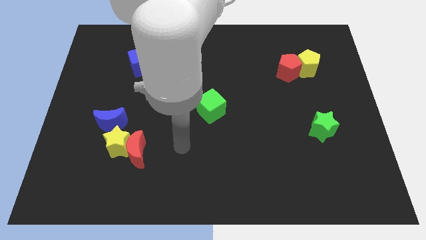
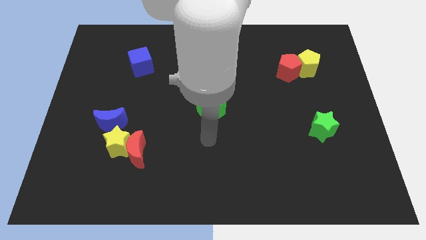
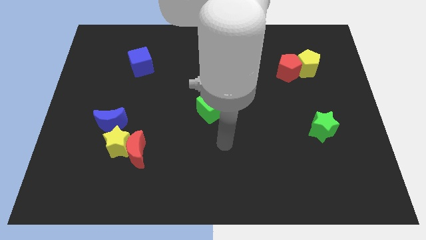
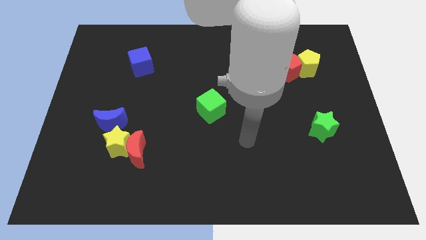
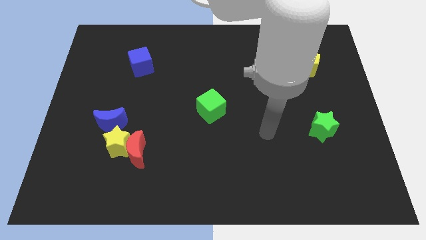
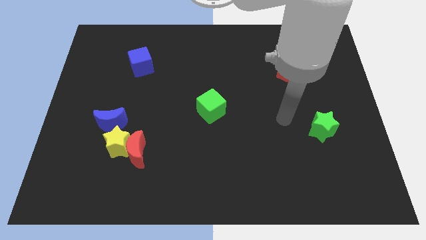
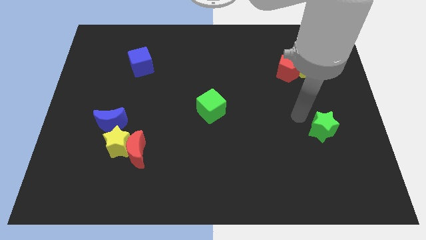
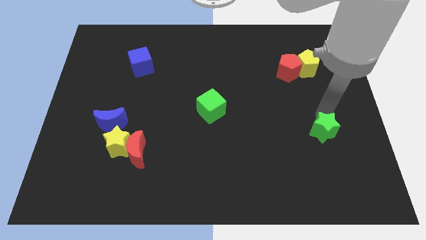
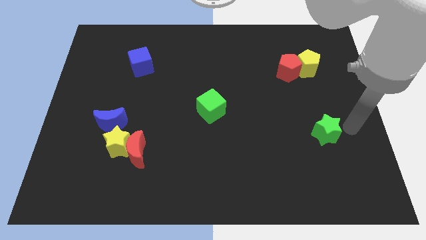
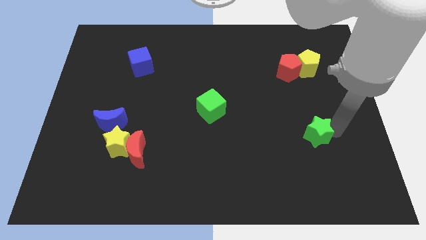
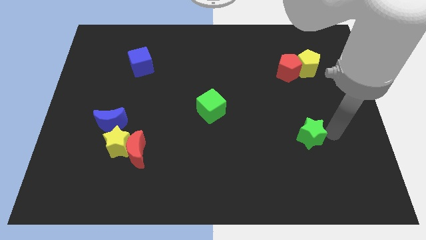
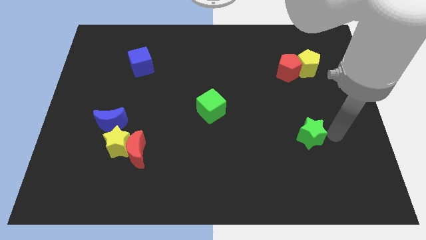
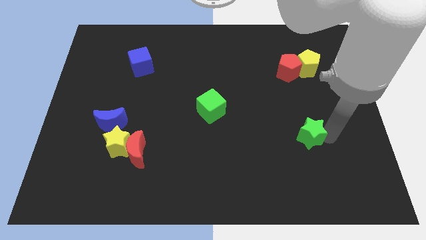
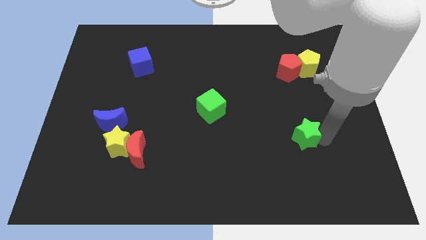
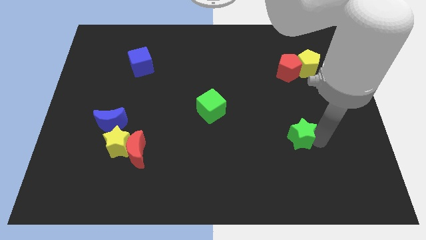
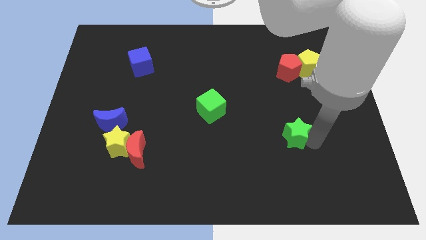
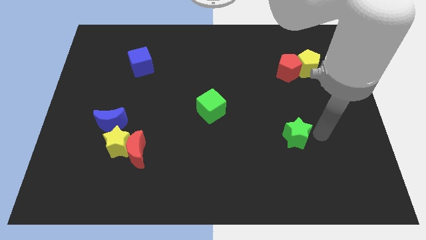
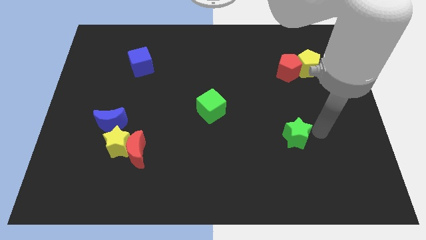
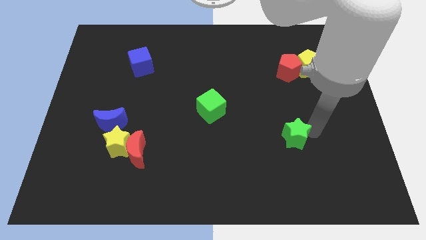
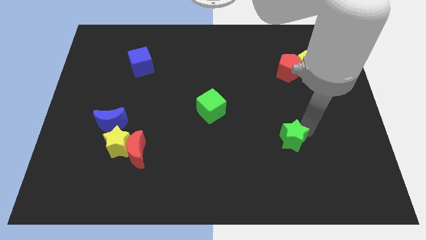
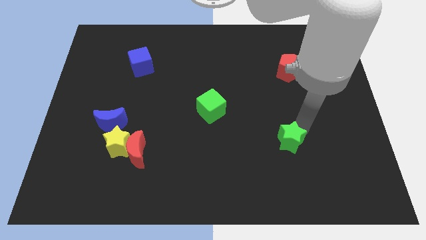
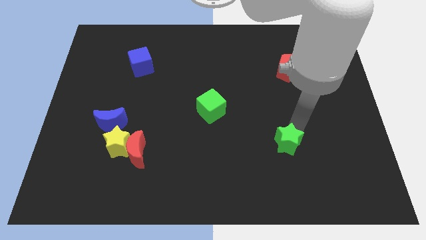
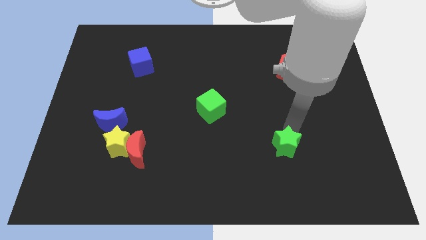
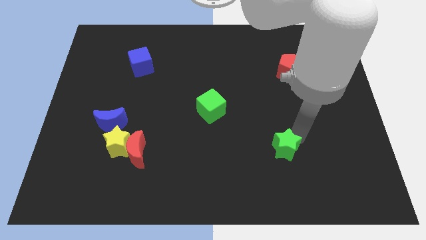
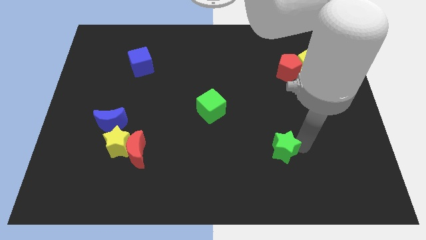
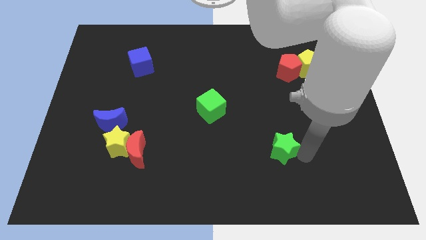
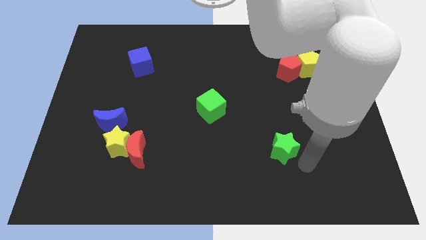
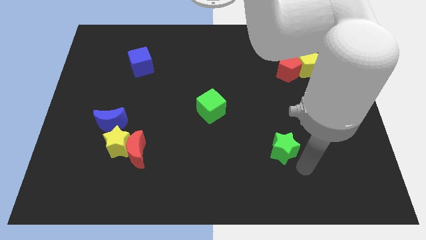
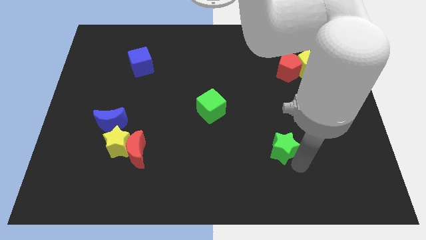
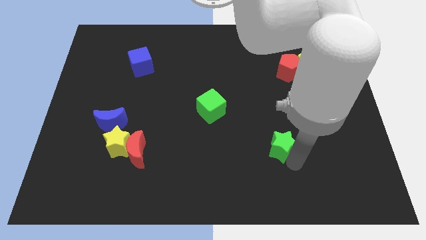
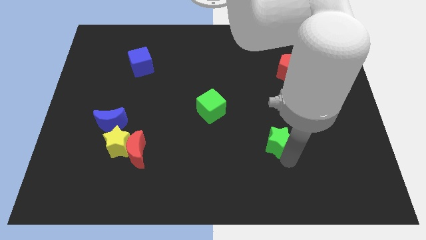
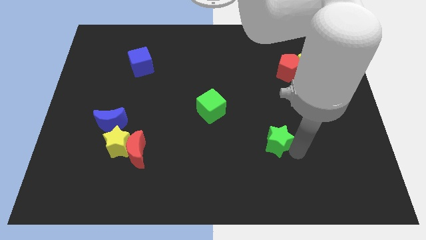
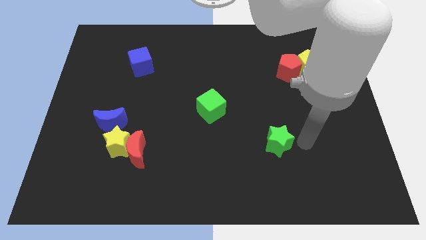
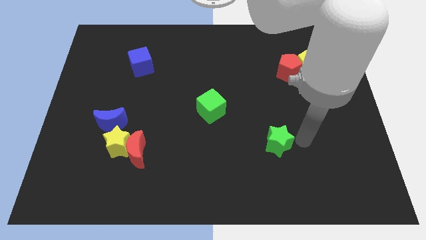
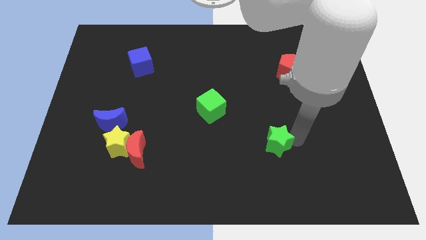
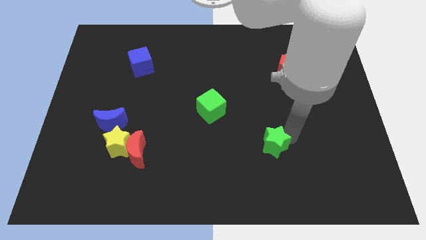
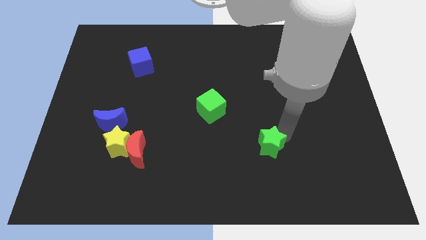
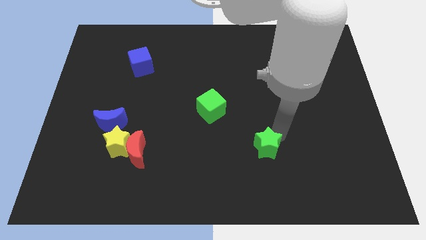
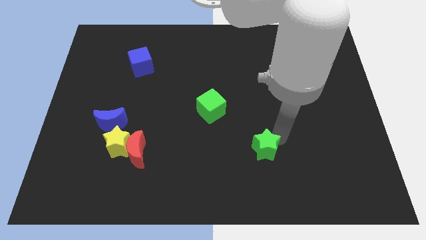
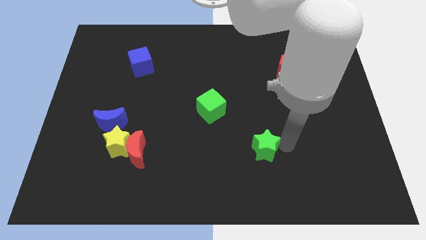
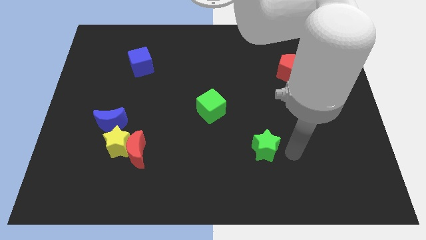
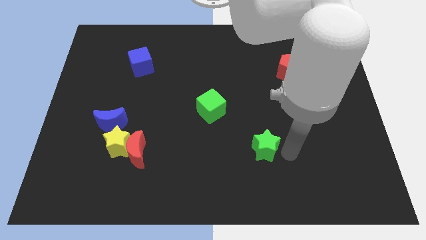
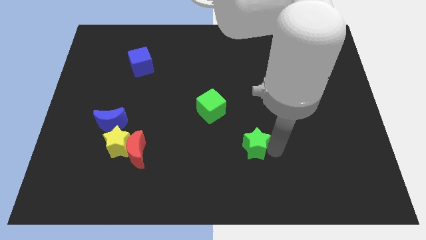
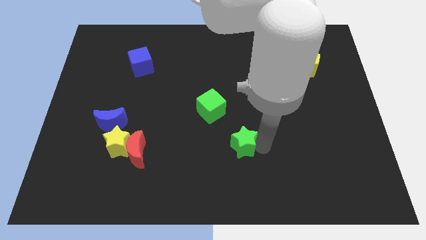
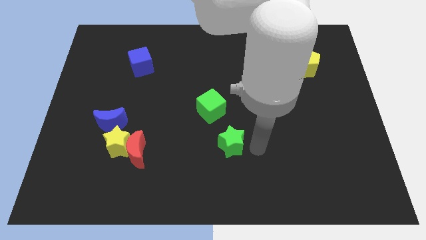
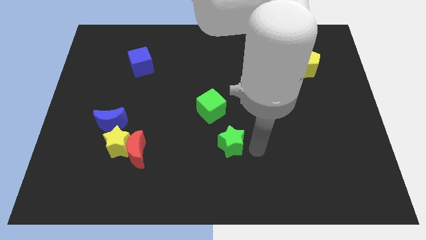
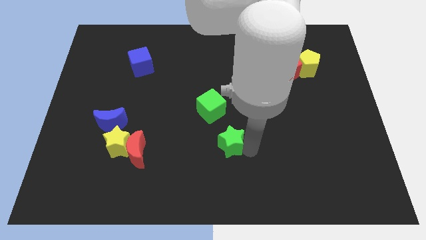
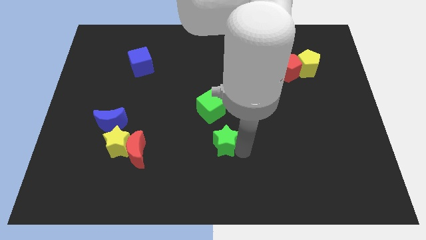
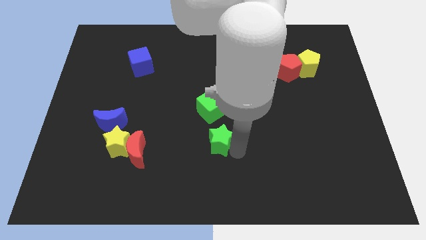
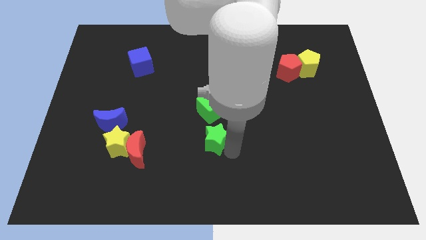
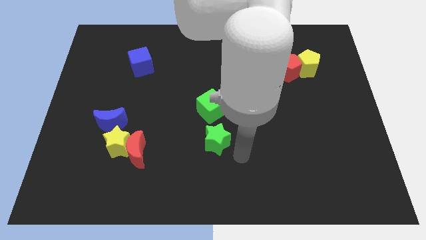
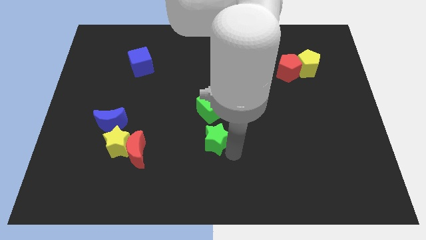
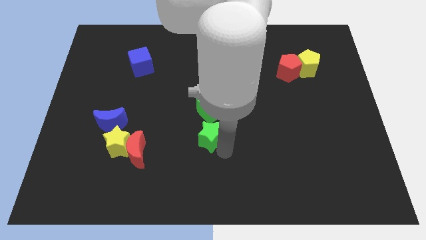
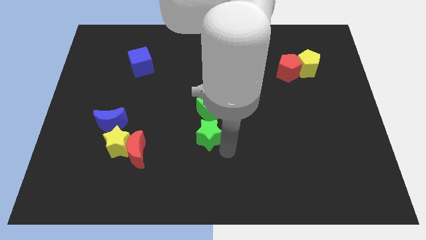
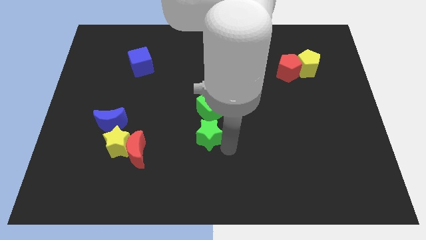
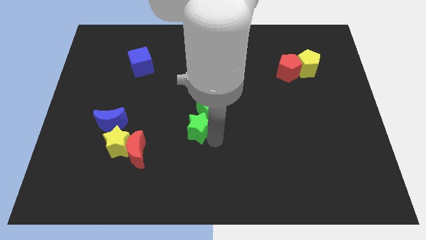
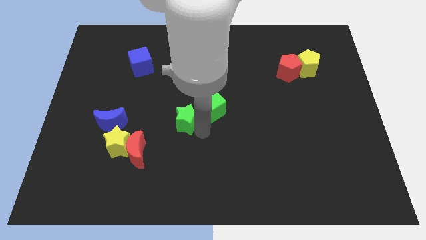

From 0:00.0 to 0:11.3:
move the green star to the left side of the green cube

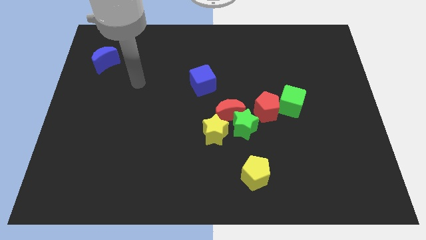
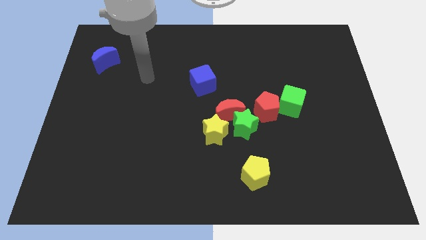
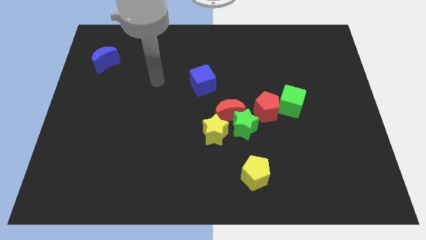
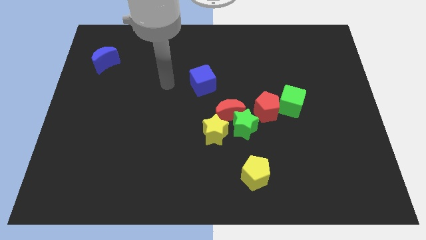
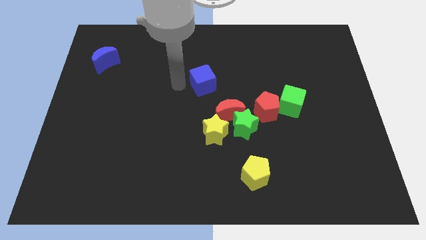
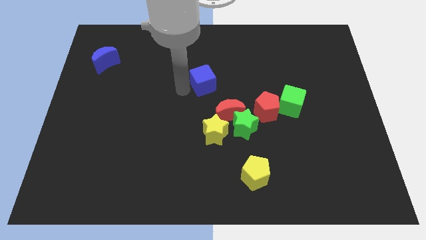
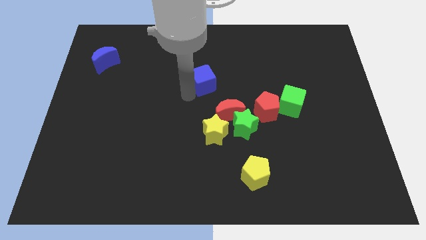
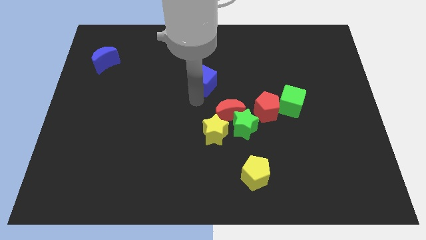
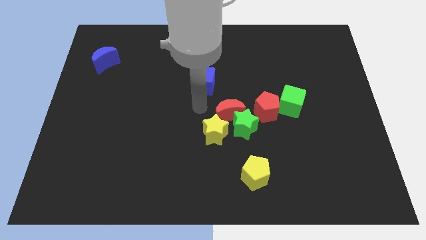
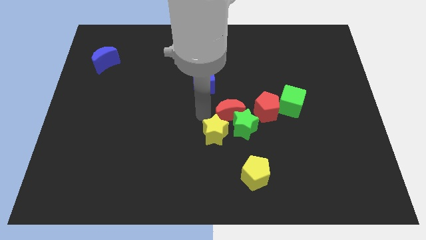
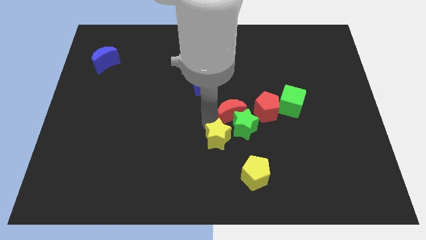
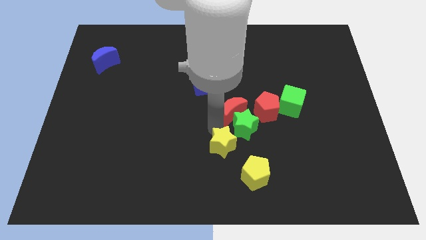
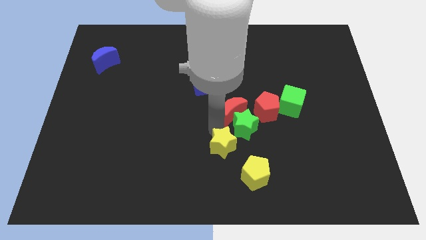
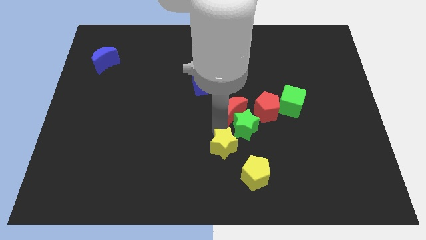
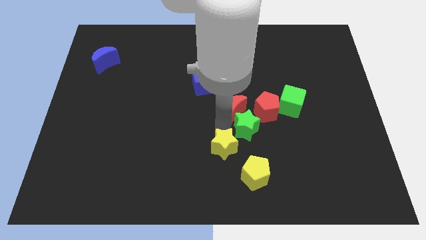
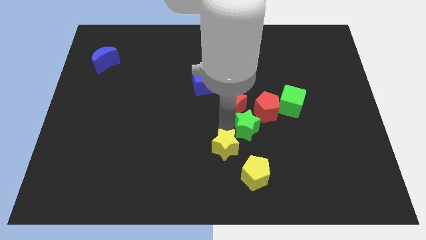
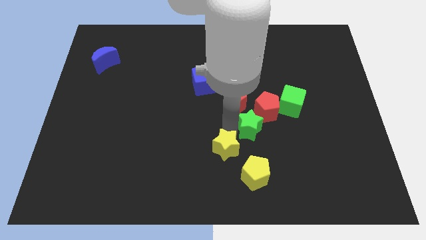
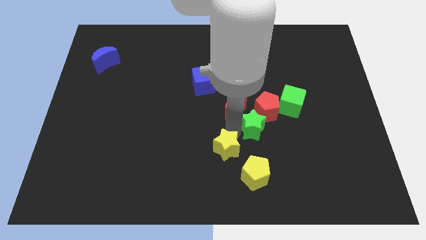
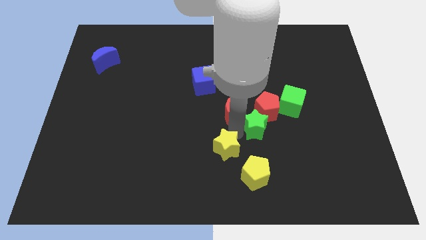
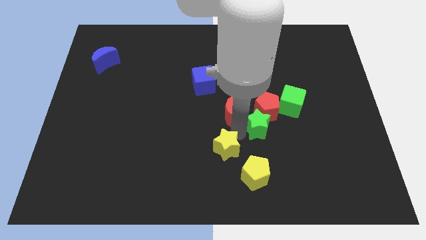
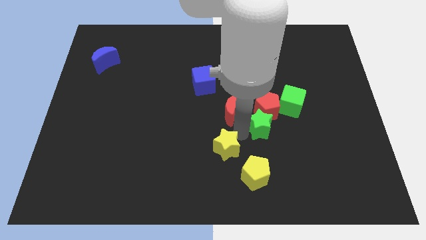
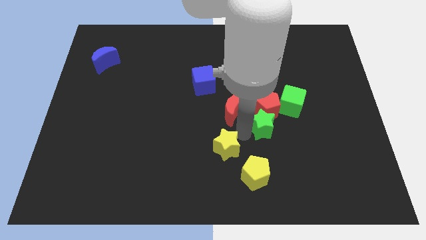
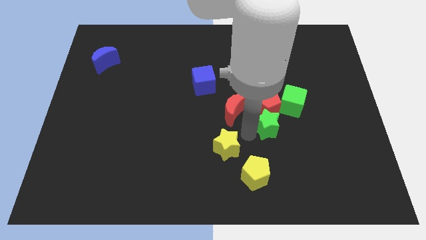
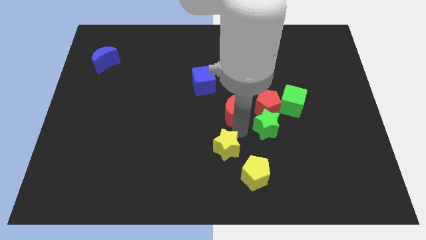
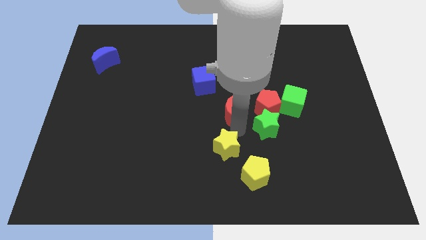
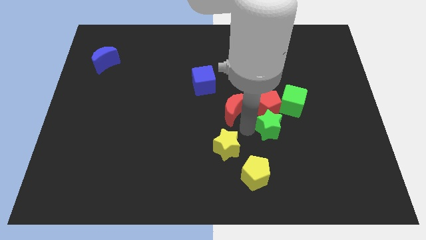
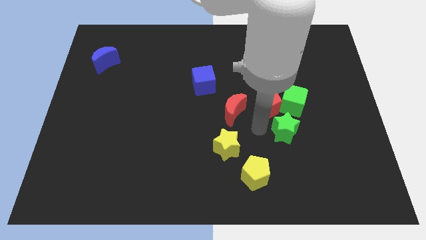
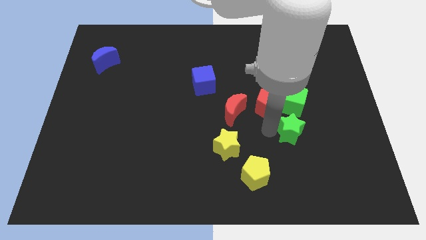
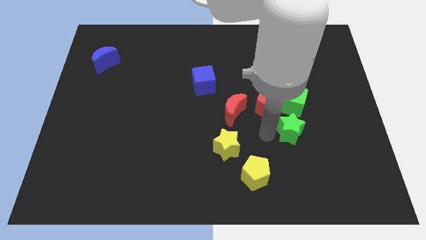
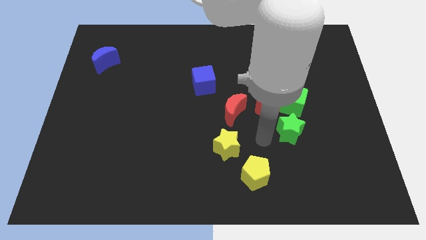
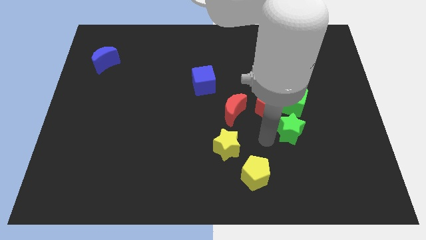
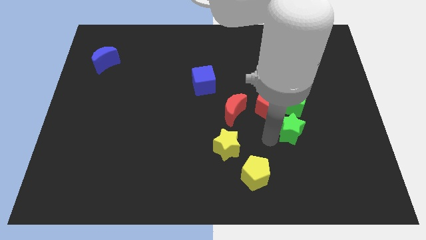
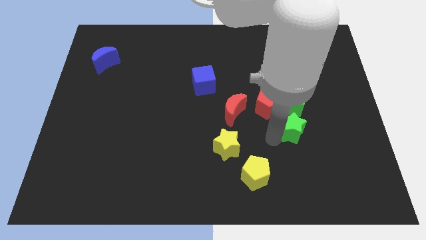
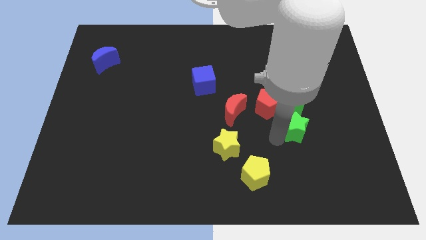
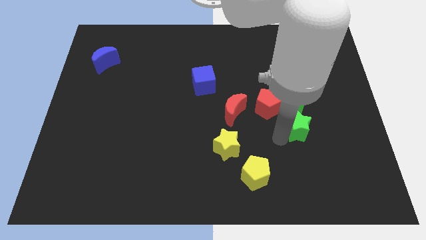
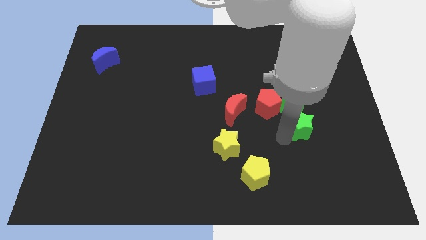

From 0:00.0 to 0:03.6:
push the green star to the bottom right side of the green cube
